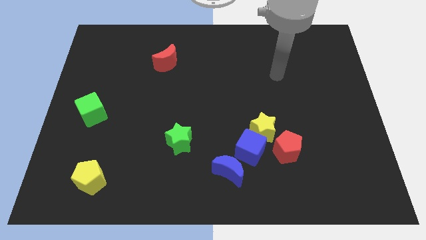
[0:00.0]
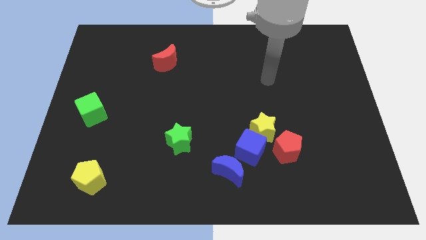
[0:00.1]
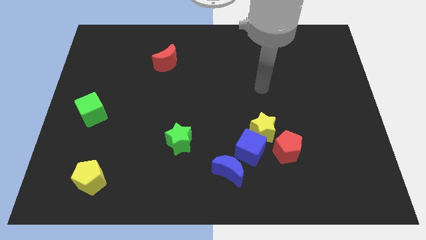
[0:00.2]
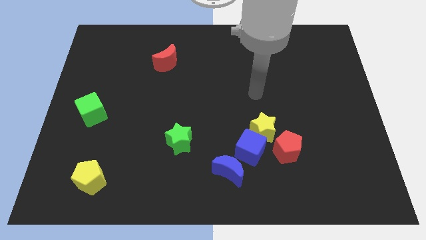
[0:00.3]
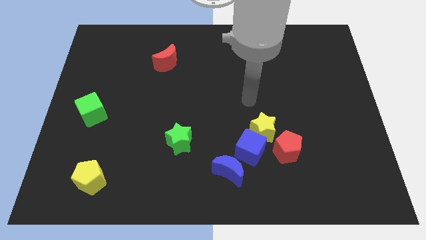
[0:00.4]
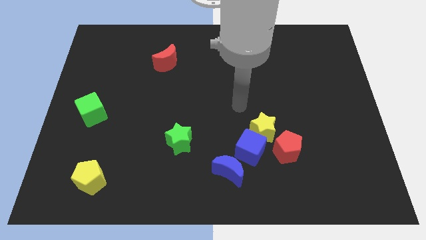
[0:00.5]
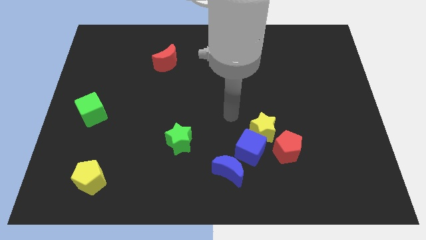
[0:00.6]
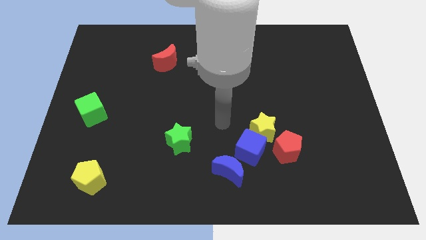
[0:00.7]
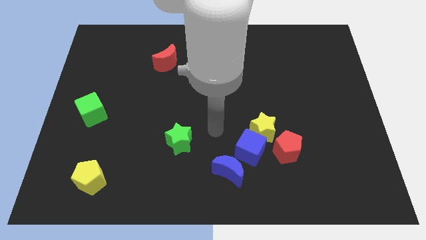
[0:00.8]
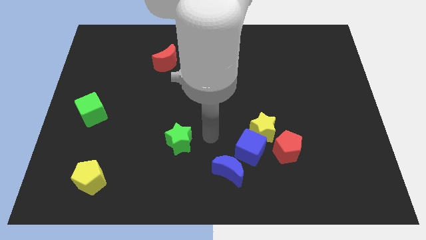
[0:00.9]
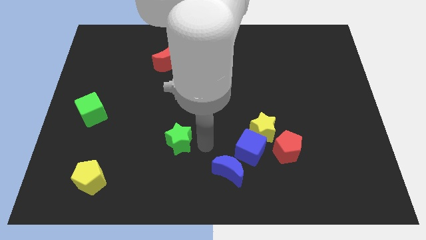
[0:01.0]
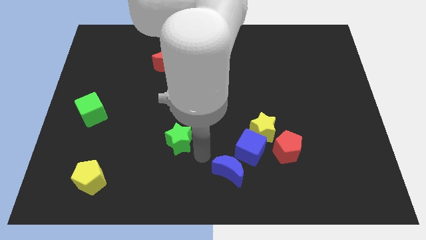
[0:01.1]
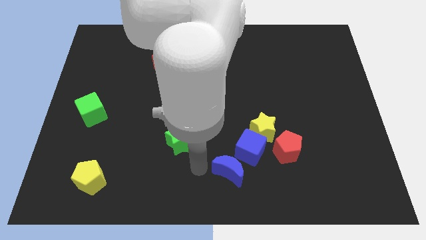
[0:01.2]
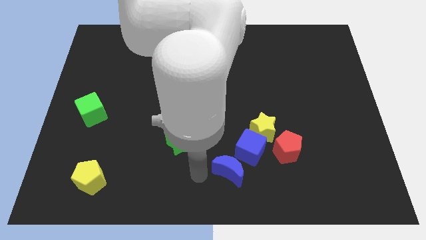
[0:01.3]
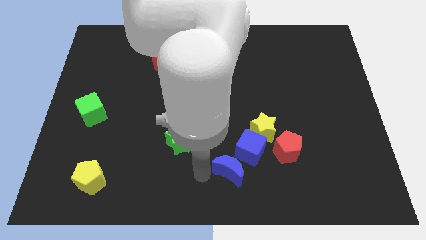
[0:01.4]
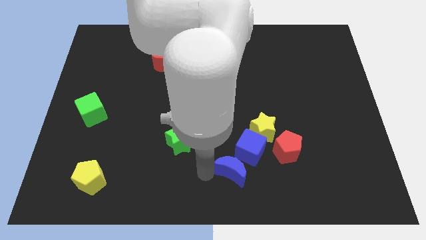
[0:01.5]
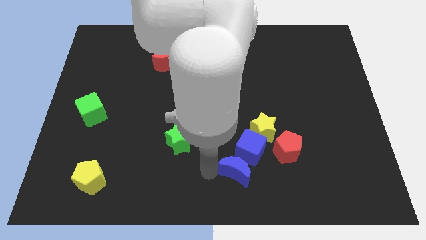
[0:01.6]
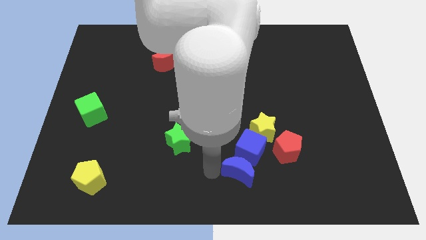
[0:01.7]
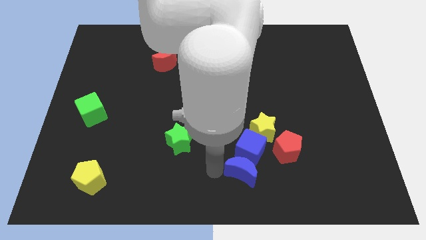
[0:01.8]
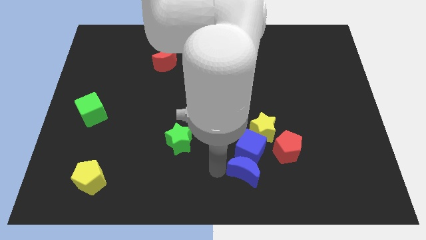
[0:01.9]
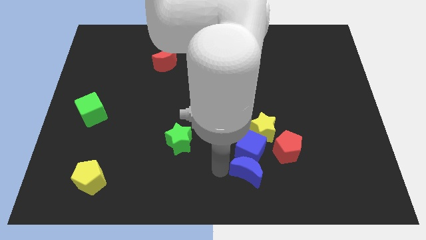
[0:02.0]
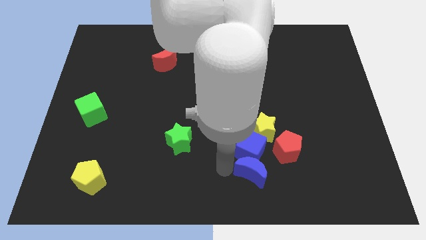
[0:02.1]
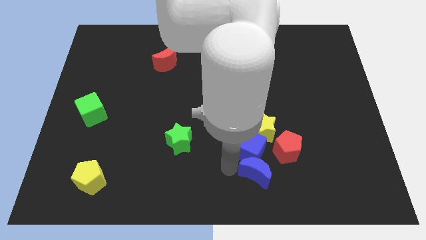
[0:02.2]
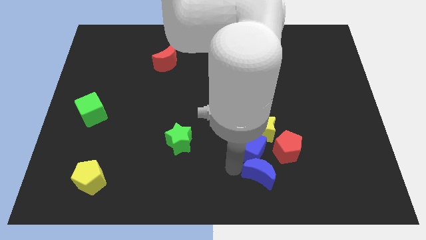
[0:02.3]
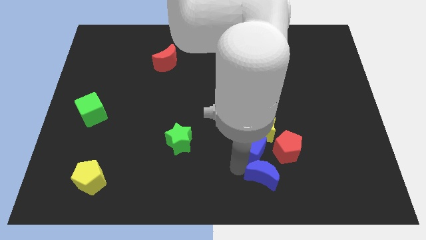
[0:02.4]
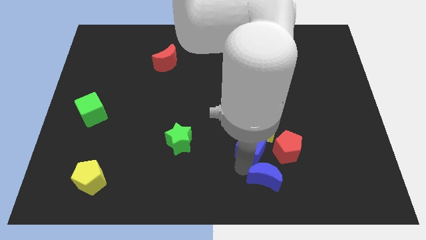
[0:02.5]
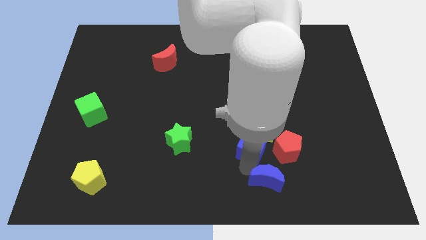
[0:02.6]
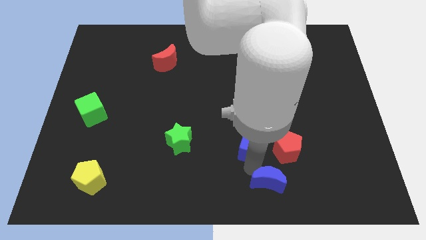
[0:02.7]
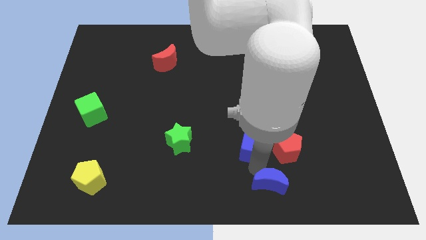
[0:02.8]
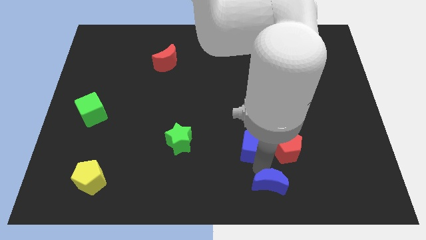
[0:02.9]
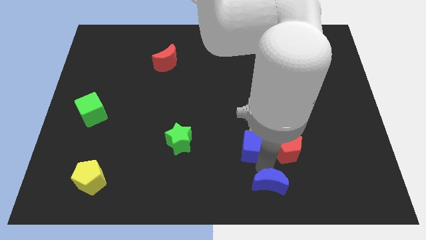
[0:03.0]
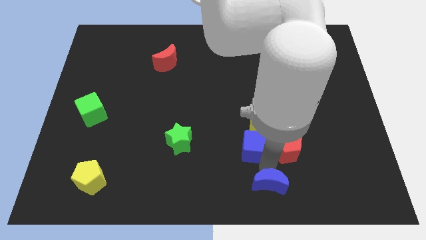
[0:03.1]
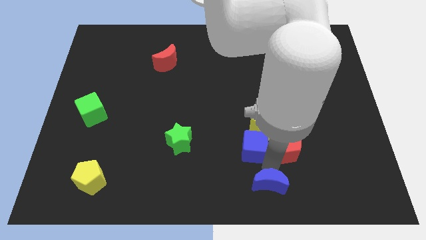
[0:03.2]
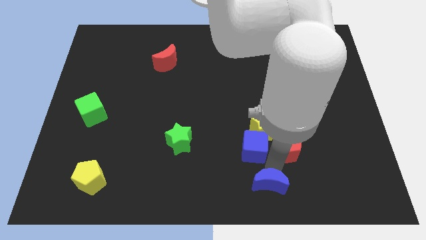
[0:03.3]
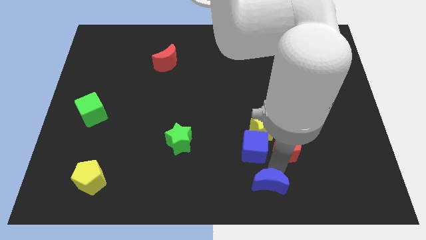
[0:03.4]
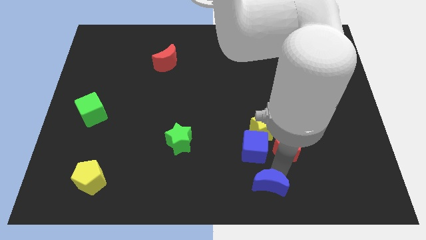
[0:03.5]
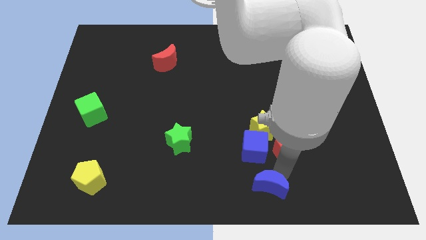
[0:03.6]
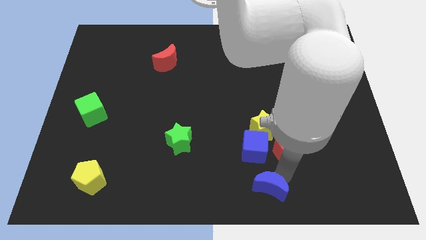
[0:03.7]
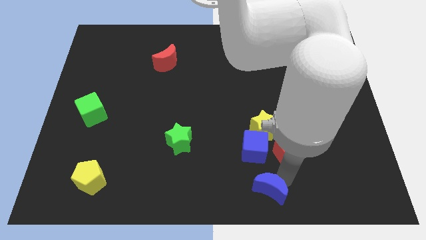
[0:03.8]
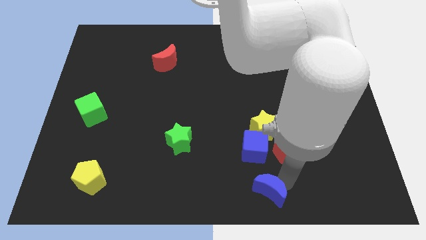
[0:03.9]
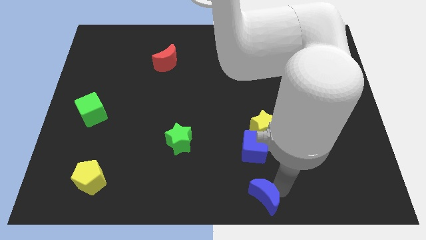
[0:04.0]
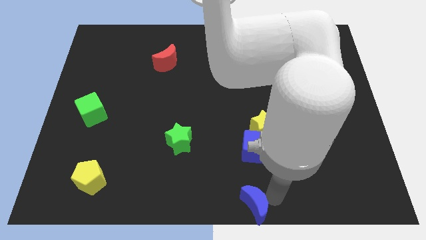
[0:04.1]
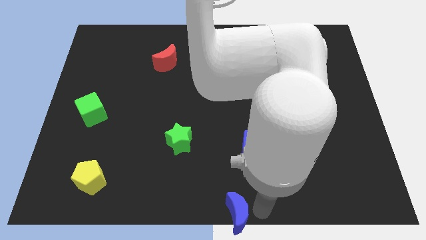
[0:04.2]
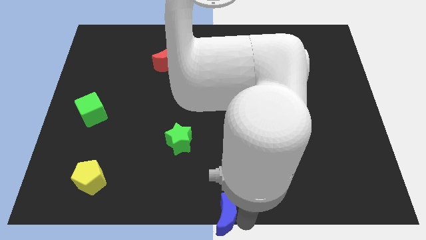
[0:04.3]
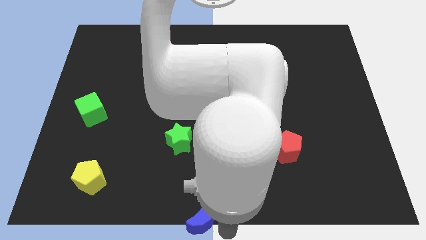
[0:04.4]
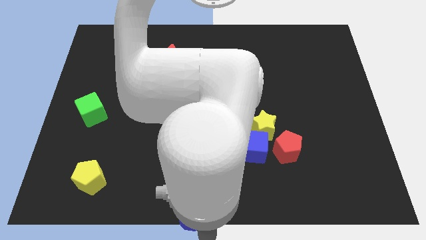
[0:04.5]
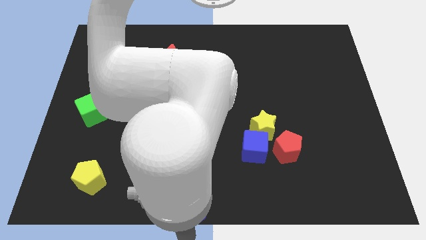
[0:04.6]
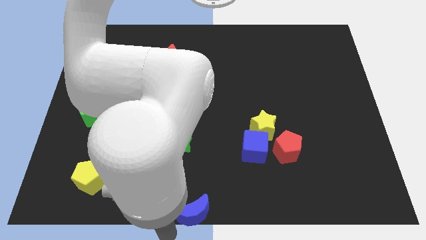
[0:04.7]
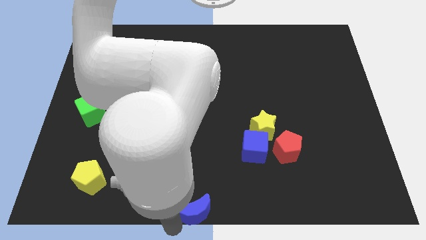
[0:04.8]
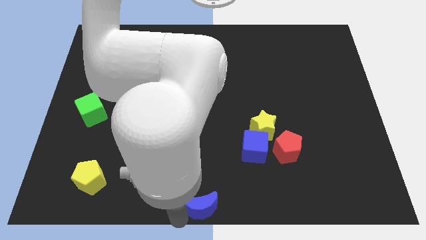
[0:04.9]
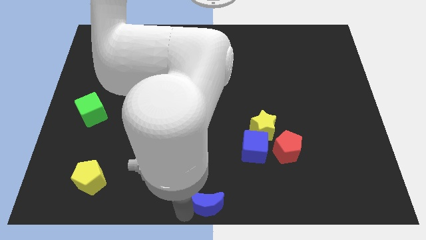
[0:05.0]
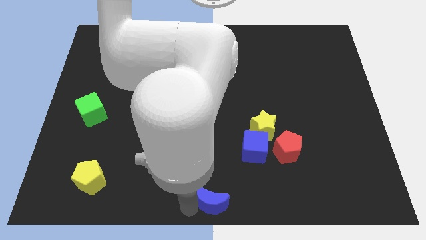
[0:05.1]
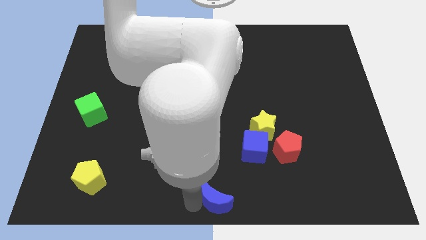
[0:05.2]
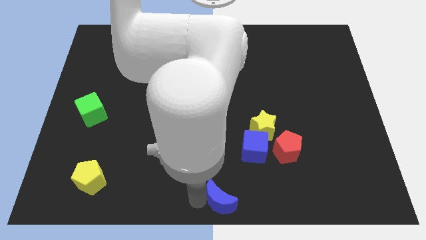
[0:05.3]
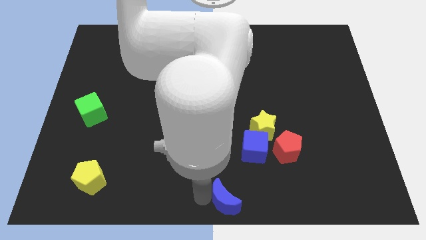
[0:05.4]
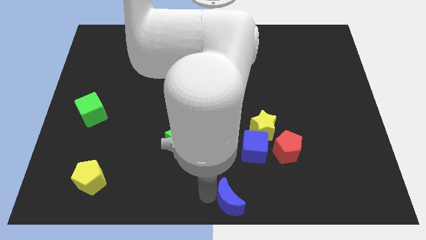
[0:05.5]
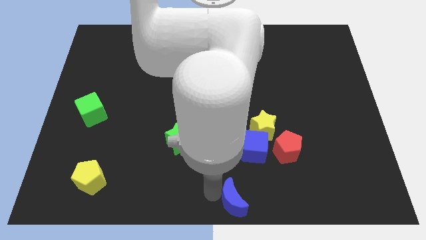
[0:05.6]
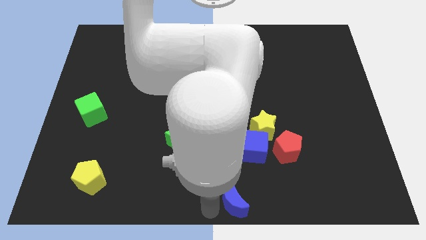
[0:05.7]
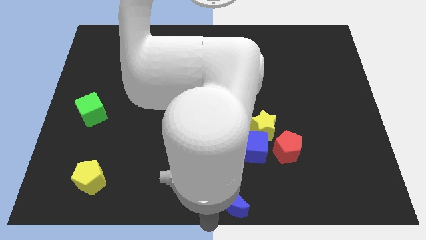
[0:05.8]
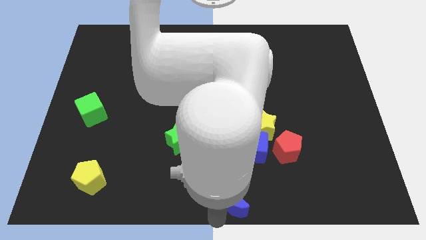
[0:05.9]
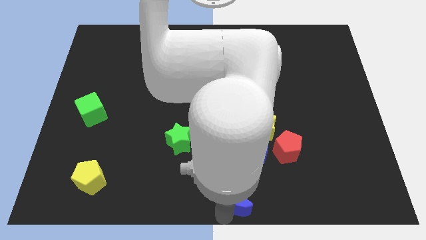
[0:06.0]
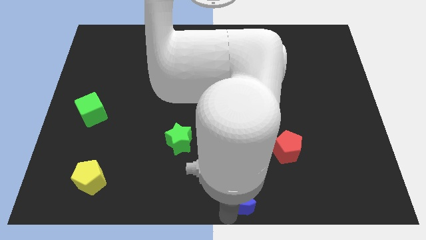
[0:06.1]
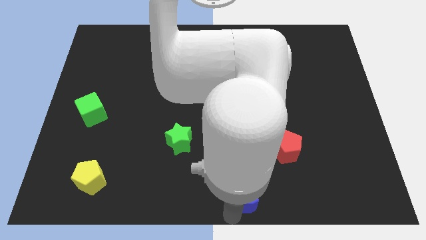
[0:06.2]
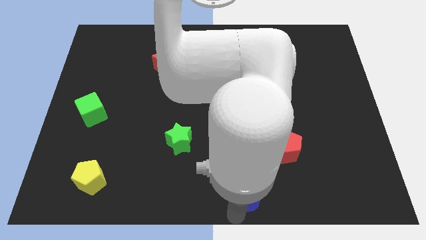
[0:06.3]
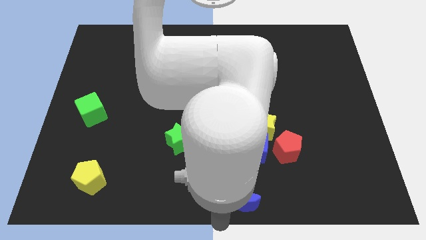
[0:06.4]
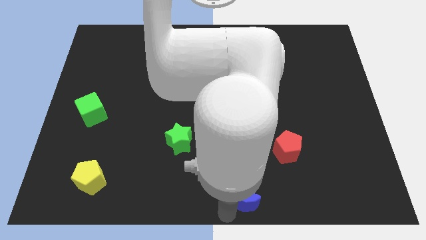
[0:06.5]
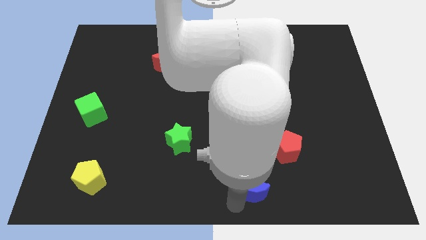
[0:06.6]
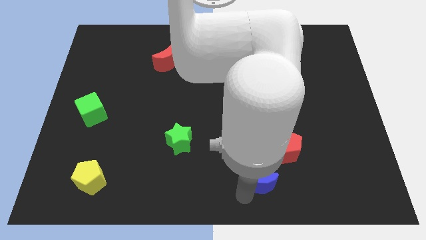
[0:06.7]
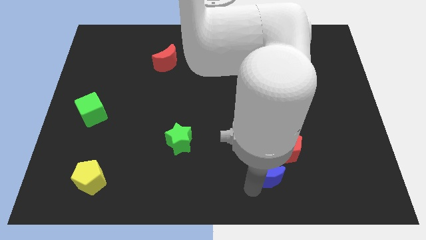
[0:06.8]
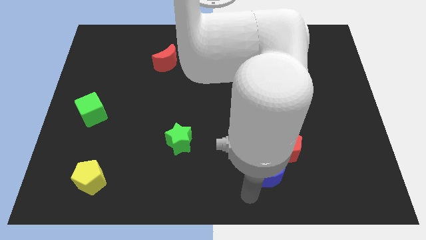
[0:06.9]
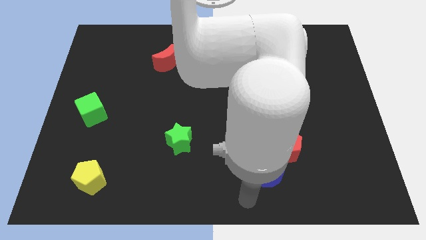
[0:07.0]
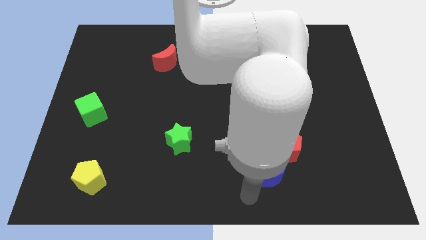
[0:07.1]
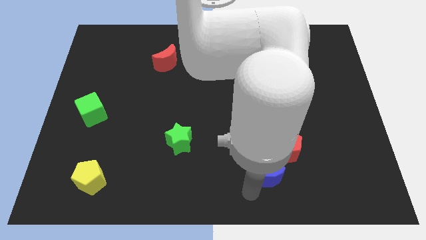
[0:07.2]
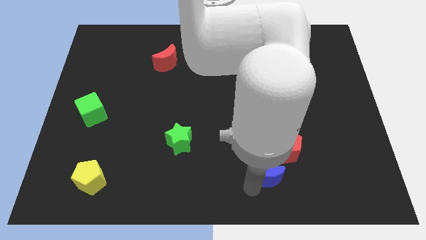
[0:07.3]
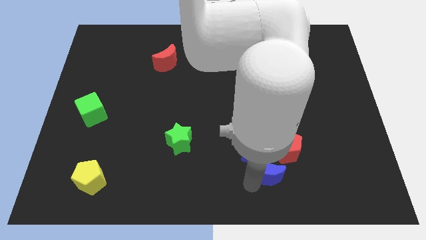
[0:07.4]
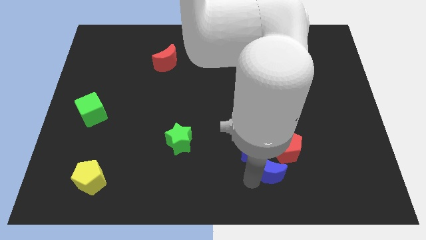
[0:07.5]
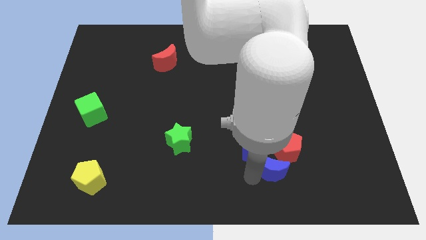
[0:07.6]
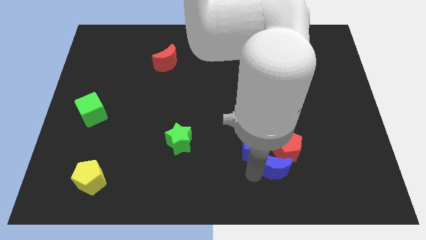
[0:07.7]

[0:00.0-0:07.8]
push the blue moon close to the red pentagon
